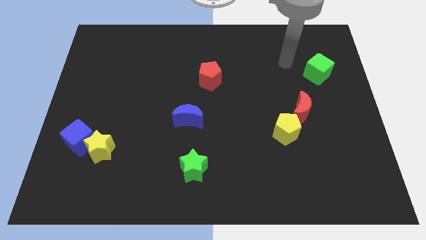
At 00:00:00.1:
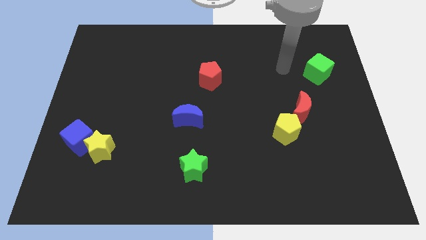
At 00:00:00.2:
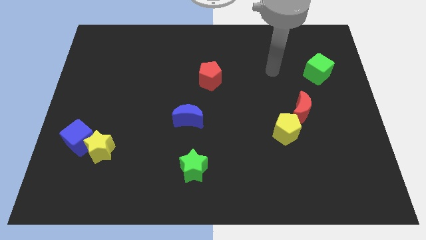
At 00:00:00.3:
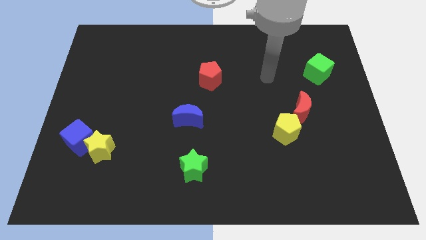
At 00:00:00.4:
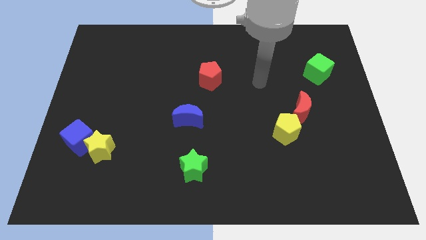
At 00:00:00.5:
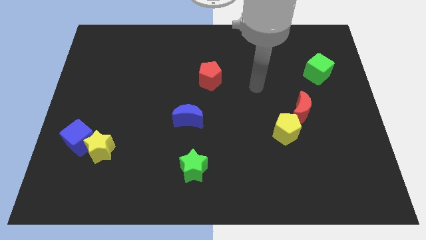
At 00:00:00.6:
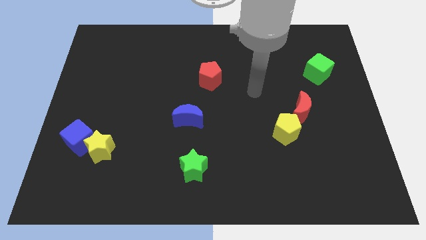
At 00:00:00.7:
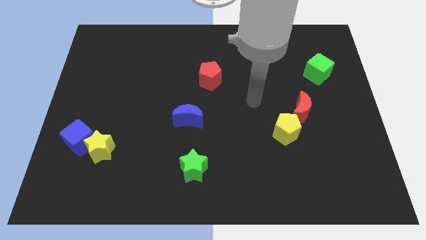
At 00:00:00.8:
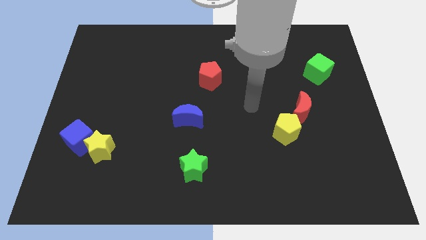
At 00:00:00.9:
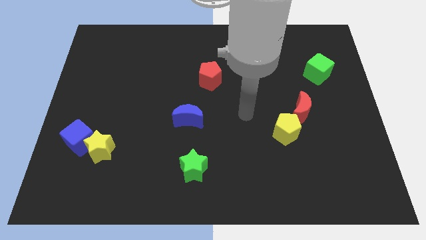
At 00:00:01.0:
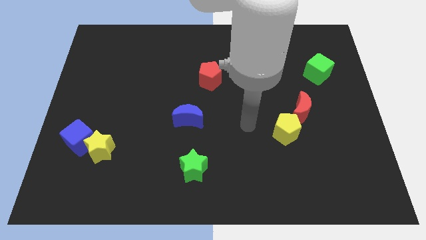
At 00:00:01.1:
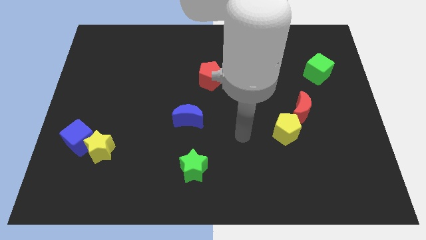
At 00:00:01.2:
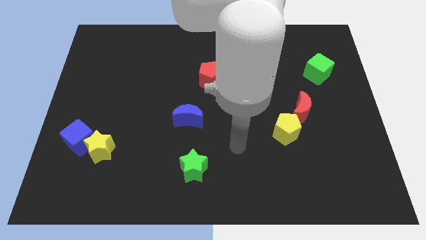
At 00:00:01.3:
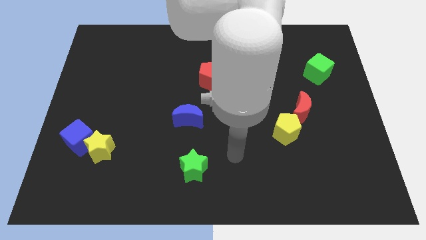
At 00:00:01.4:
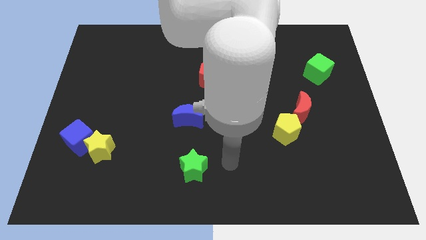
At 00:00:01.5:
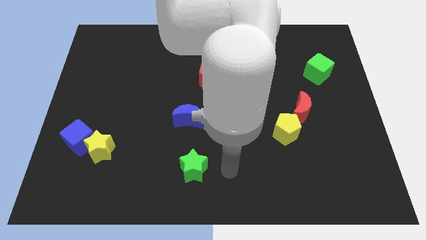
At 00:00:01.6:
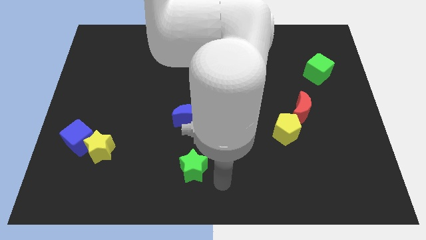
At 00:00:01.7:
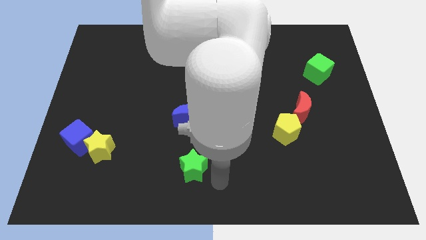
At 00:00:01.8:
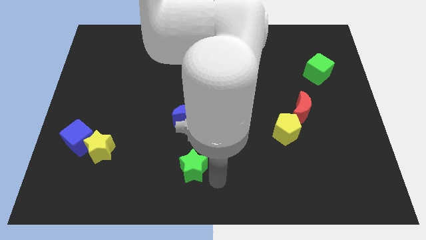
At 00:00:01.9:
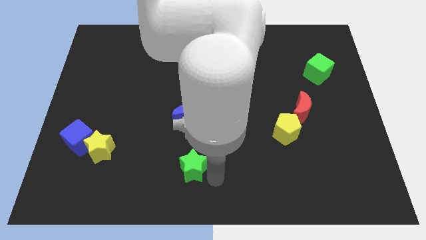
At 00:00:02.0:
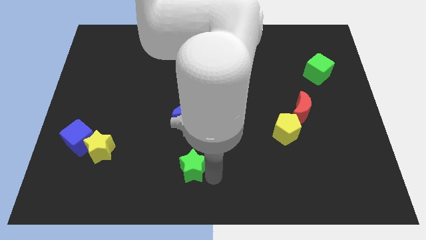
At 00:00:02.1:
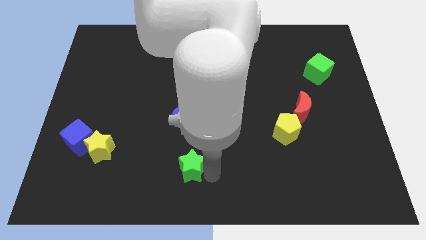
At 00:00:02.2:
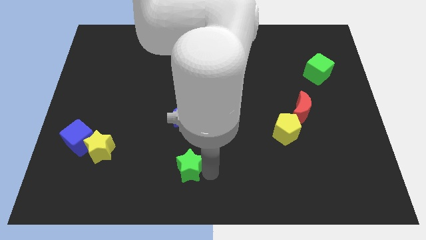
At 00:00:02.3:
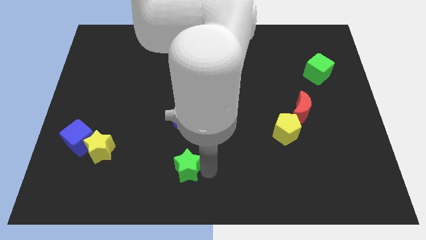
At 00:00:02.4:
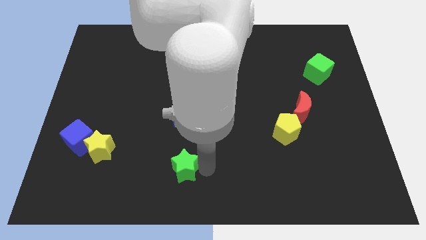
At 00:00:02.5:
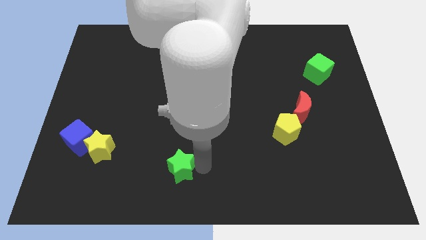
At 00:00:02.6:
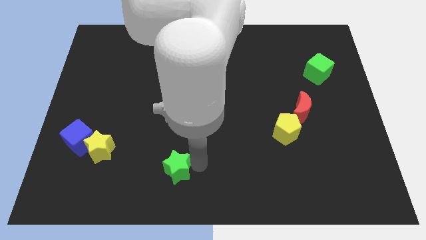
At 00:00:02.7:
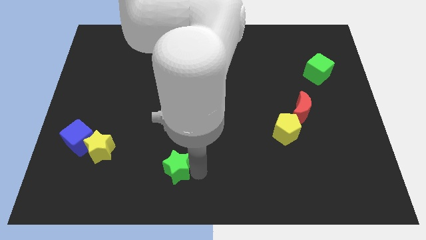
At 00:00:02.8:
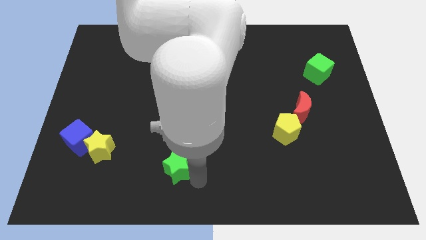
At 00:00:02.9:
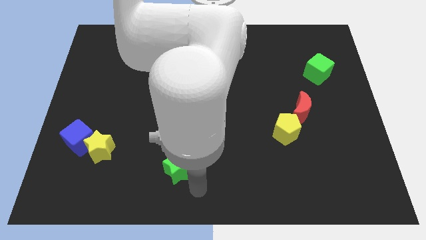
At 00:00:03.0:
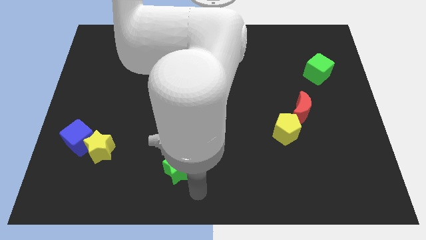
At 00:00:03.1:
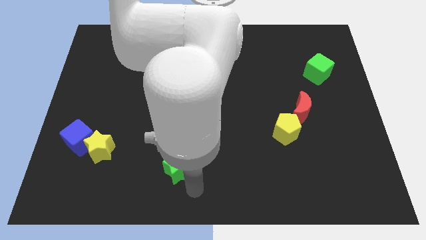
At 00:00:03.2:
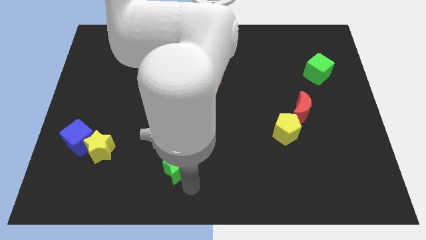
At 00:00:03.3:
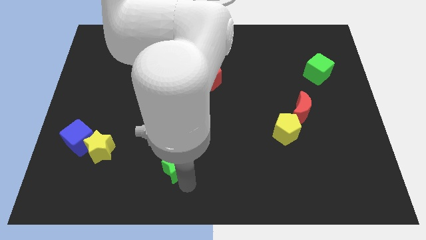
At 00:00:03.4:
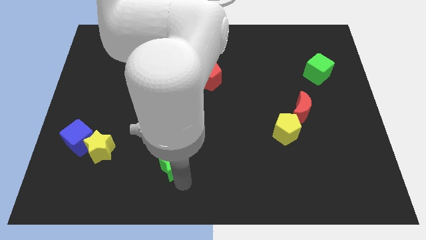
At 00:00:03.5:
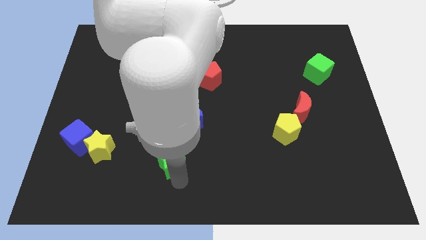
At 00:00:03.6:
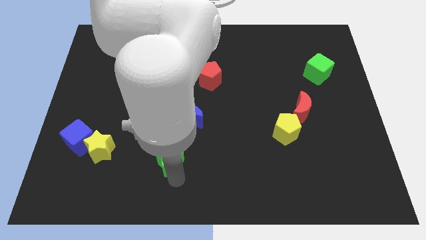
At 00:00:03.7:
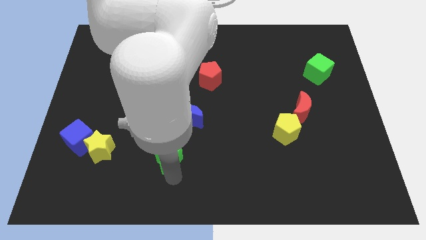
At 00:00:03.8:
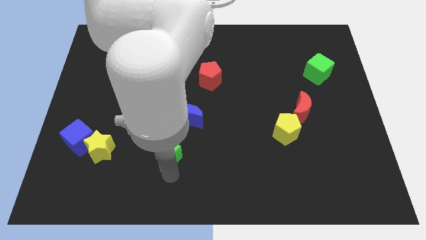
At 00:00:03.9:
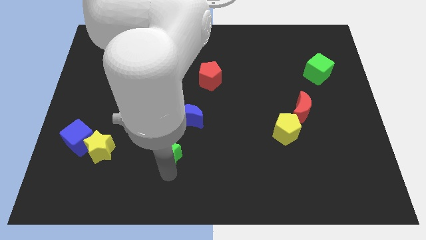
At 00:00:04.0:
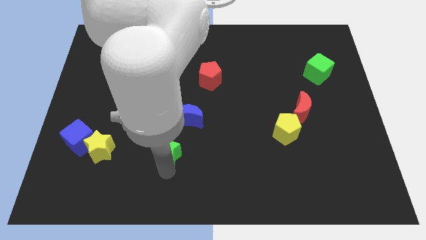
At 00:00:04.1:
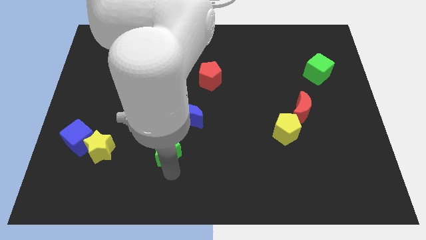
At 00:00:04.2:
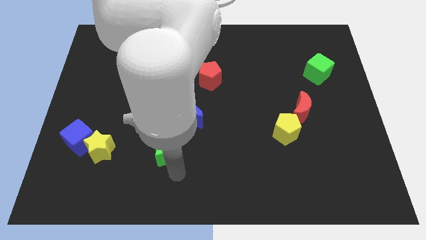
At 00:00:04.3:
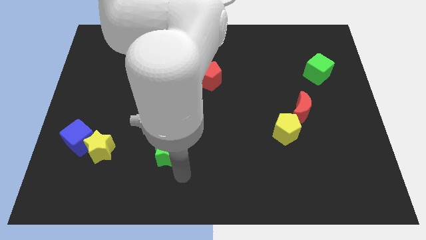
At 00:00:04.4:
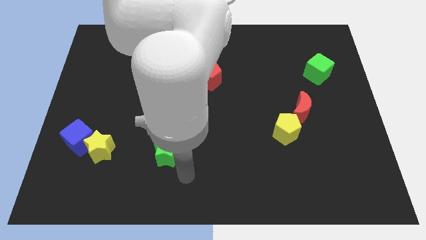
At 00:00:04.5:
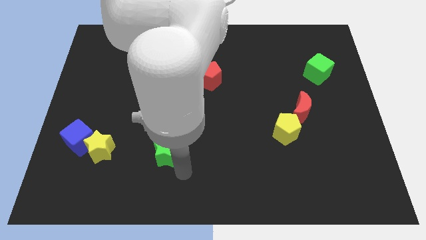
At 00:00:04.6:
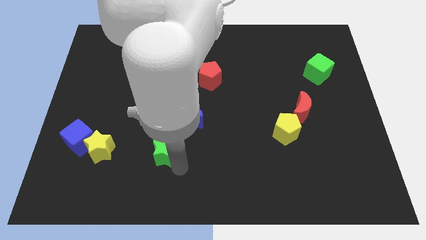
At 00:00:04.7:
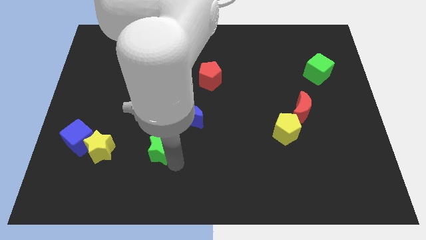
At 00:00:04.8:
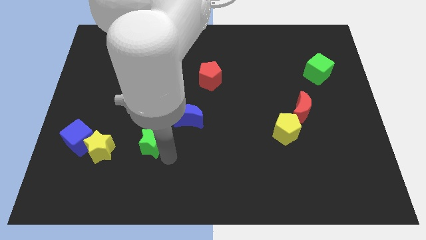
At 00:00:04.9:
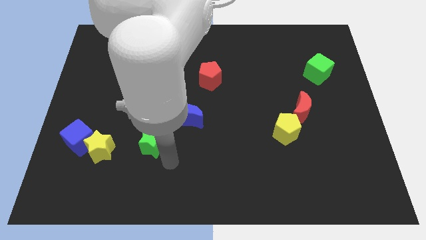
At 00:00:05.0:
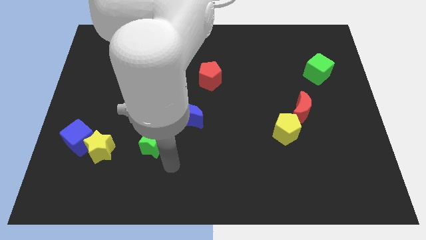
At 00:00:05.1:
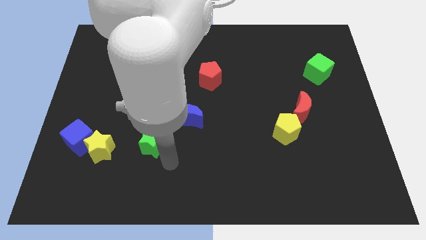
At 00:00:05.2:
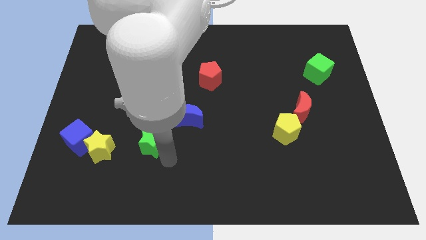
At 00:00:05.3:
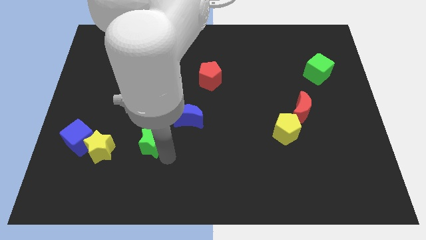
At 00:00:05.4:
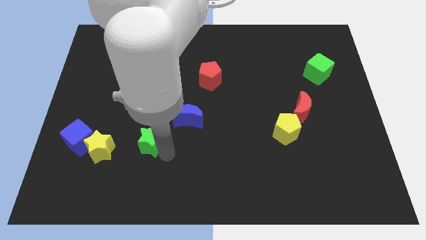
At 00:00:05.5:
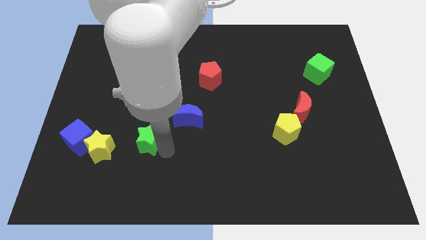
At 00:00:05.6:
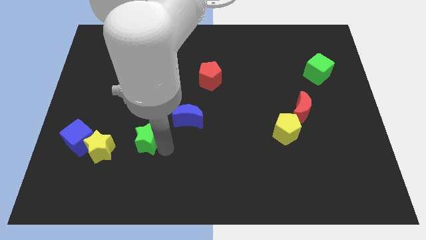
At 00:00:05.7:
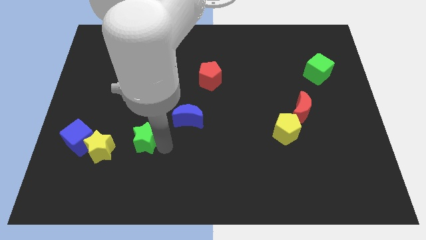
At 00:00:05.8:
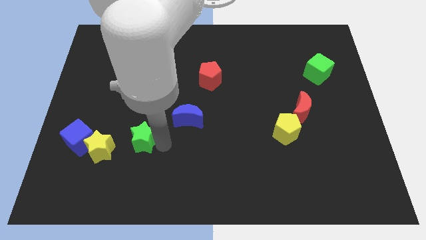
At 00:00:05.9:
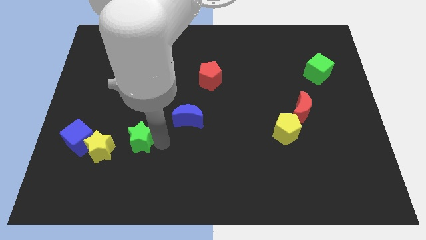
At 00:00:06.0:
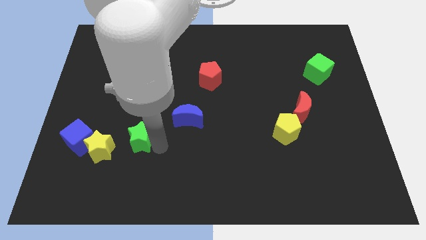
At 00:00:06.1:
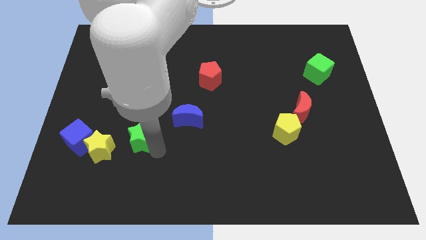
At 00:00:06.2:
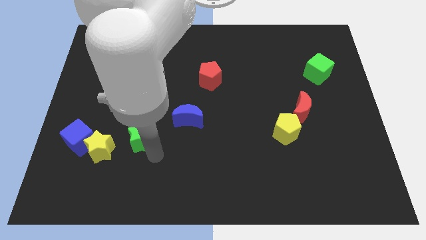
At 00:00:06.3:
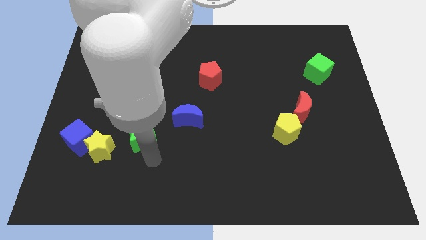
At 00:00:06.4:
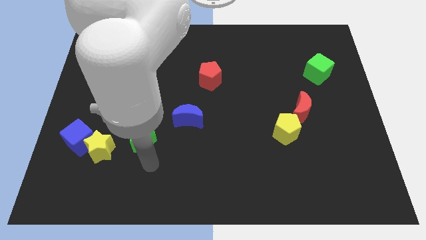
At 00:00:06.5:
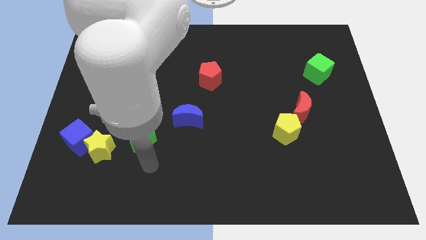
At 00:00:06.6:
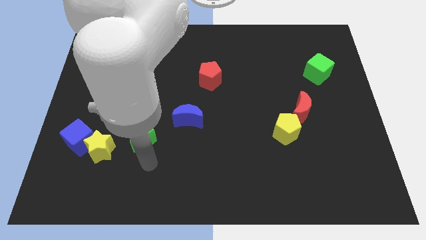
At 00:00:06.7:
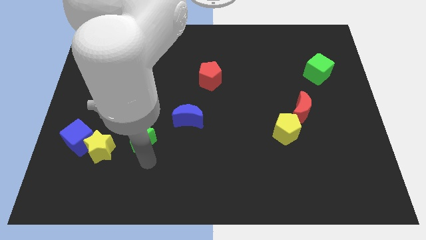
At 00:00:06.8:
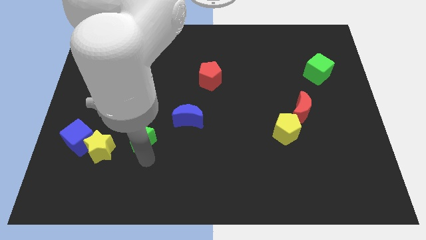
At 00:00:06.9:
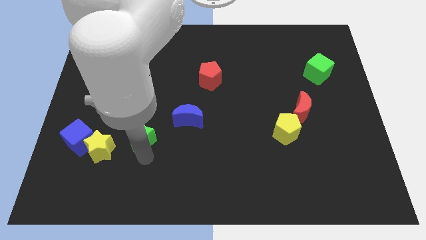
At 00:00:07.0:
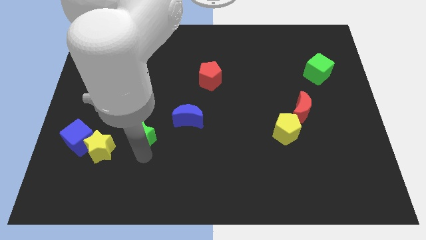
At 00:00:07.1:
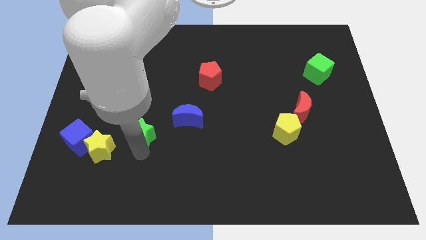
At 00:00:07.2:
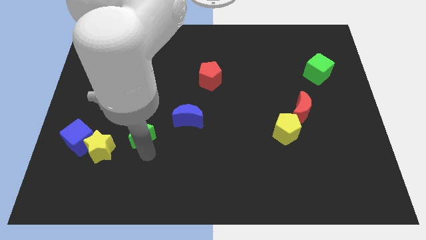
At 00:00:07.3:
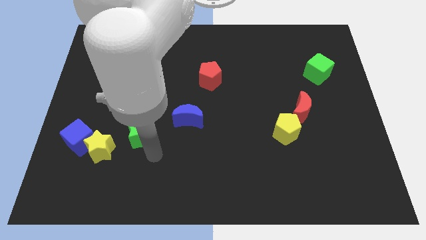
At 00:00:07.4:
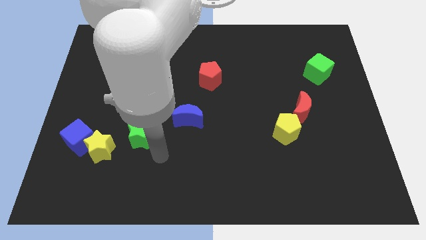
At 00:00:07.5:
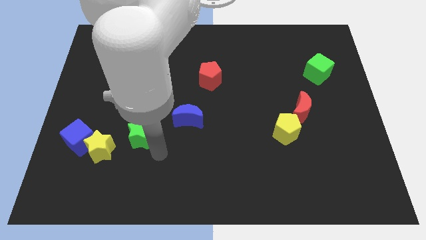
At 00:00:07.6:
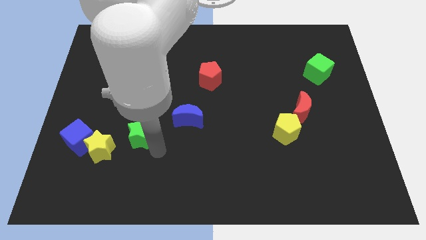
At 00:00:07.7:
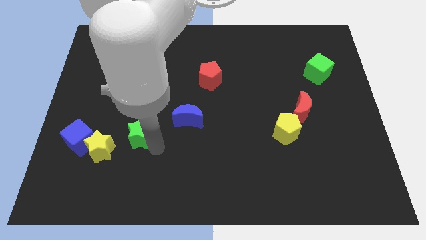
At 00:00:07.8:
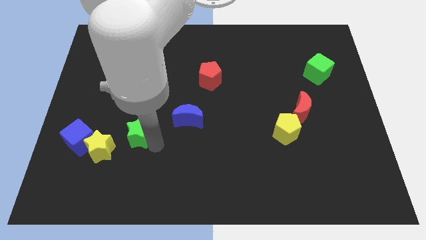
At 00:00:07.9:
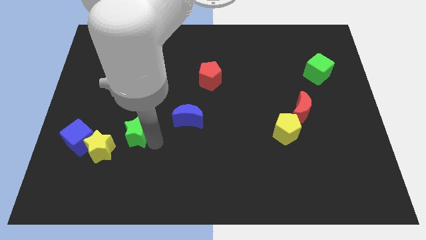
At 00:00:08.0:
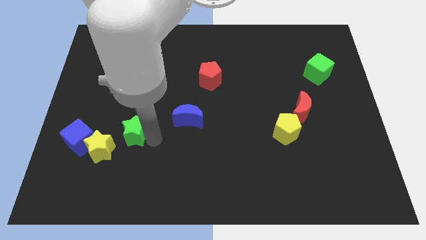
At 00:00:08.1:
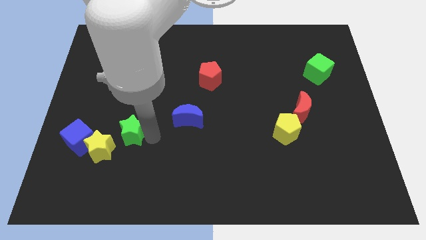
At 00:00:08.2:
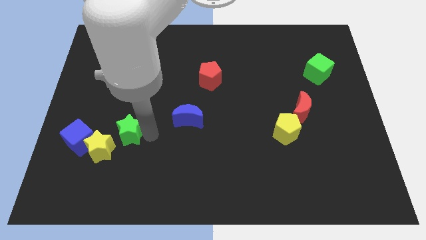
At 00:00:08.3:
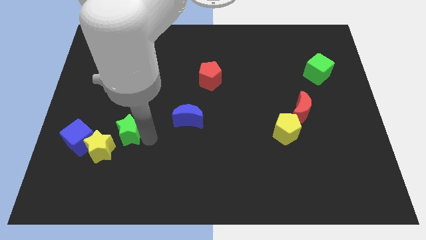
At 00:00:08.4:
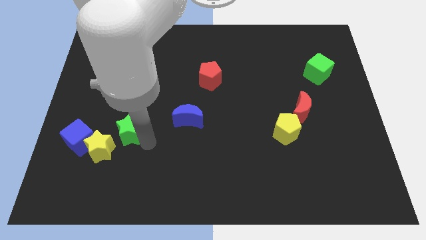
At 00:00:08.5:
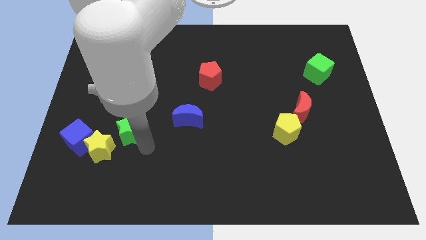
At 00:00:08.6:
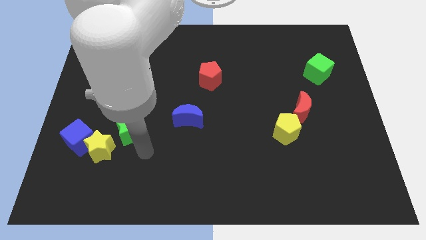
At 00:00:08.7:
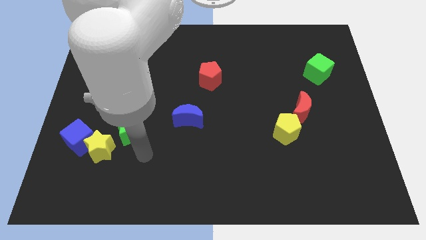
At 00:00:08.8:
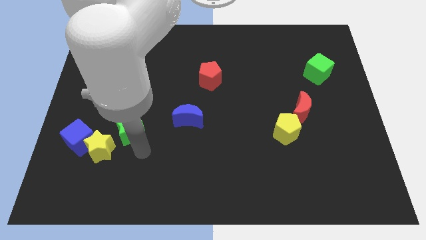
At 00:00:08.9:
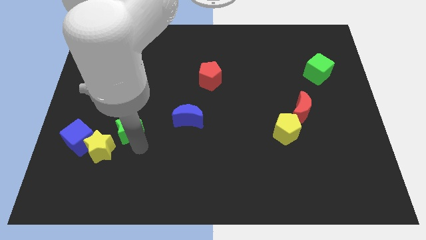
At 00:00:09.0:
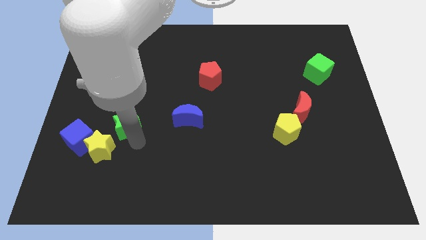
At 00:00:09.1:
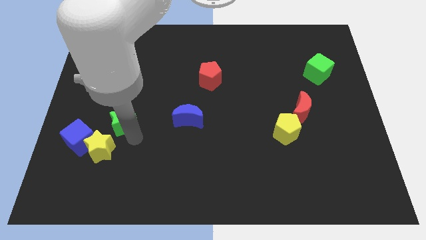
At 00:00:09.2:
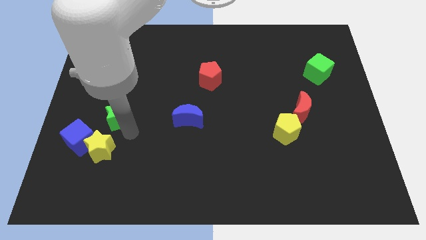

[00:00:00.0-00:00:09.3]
slide the green star up and then left
